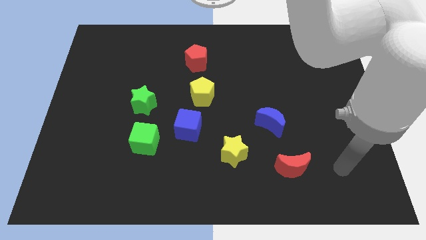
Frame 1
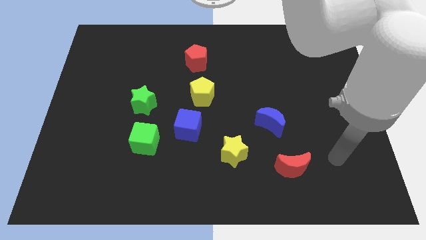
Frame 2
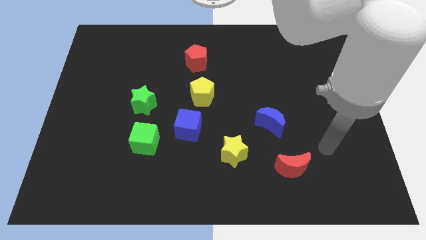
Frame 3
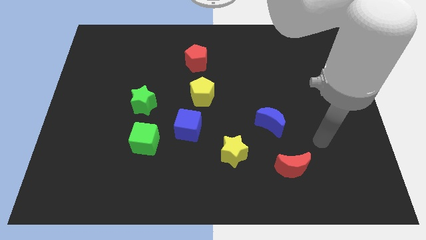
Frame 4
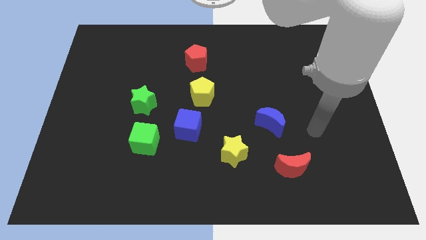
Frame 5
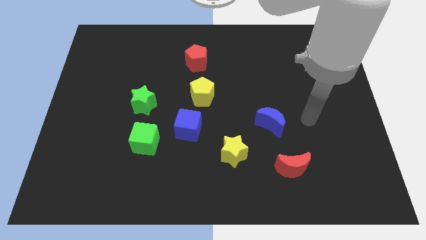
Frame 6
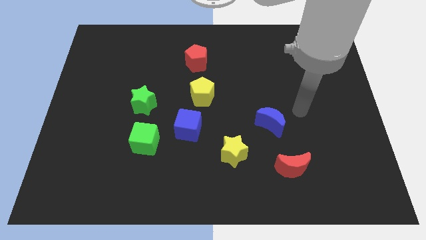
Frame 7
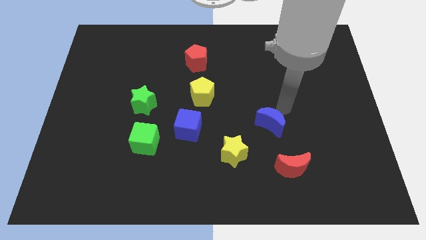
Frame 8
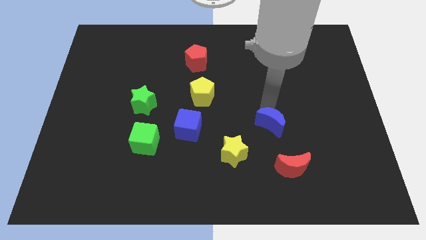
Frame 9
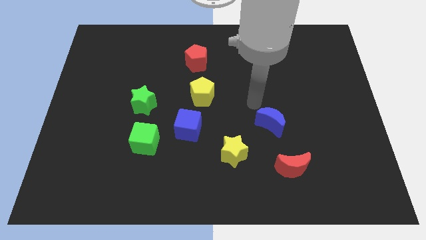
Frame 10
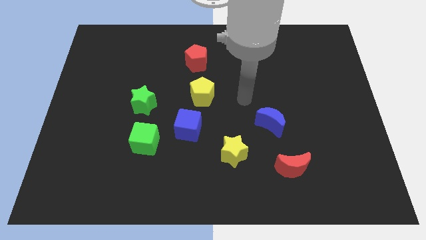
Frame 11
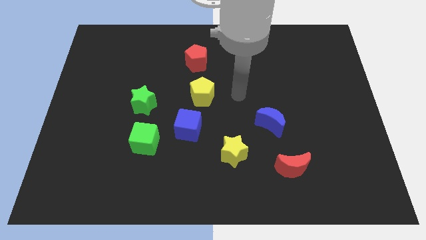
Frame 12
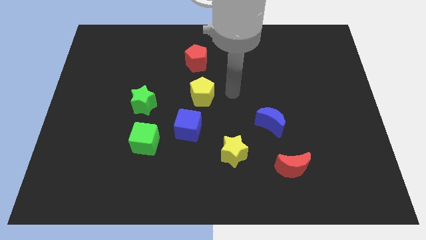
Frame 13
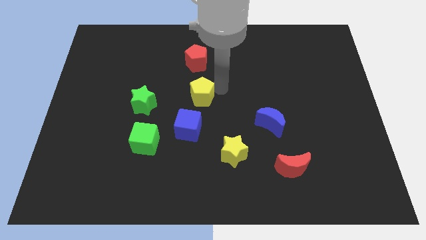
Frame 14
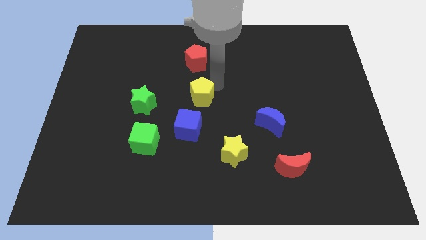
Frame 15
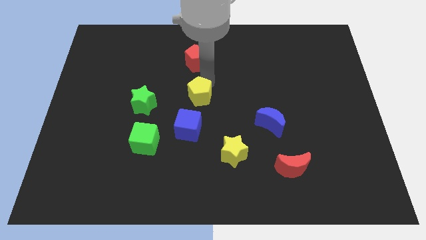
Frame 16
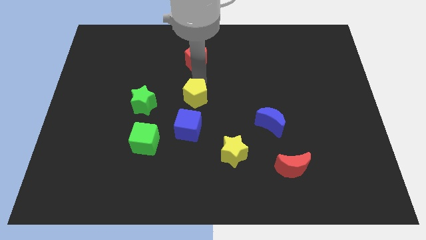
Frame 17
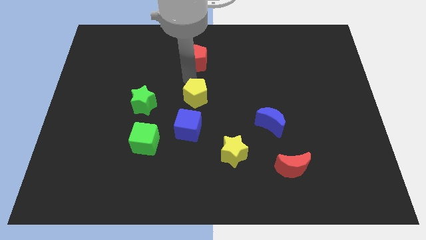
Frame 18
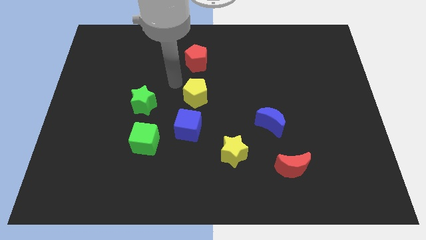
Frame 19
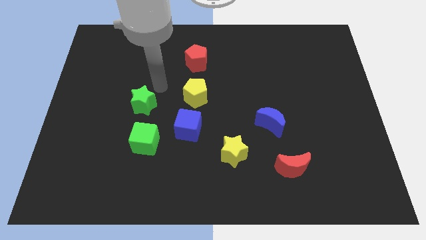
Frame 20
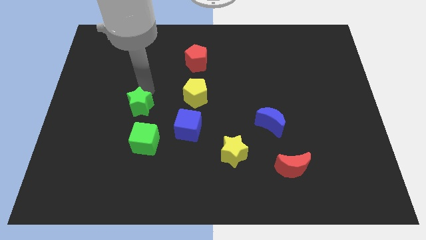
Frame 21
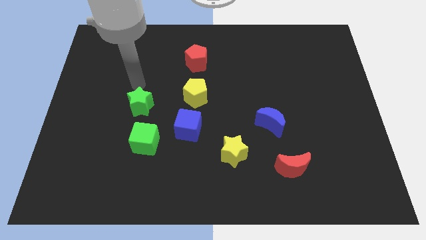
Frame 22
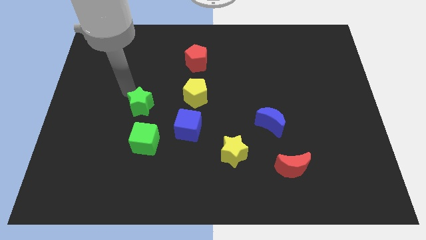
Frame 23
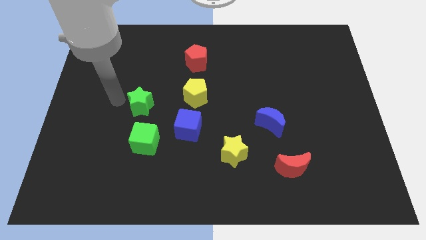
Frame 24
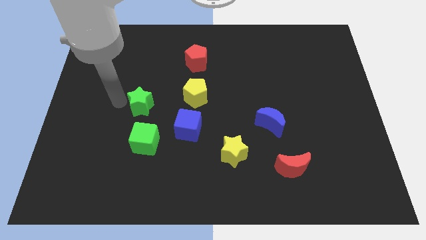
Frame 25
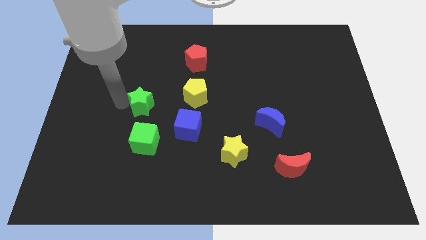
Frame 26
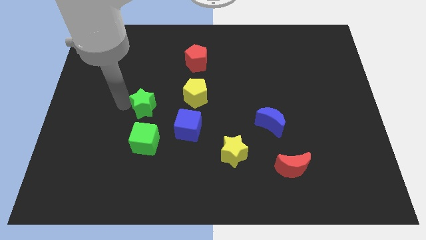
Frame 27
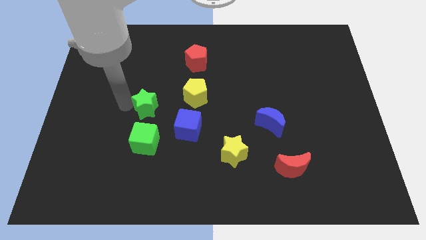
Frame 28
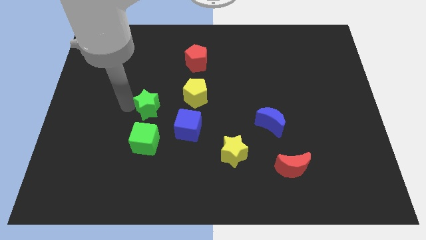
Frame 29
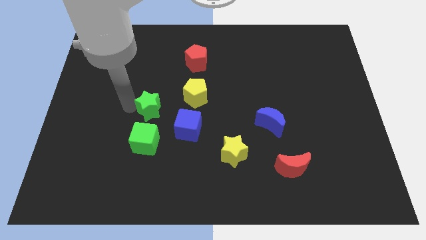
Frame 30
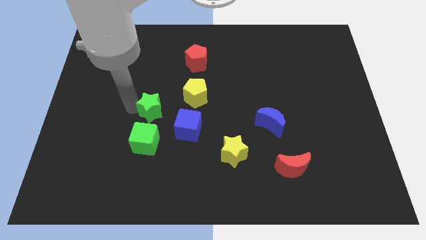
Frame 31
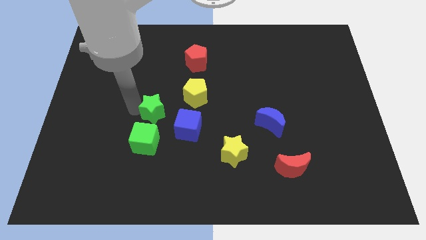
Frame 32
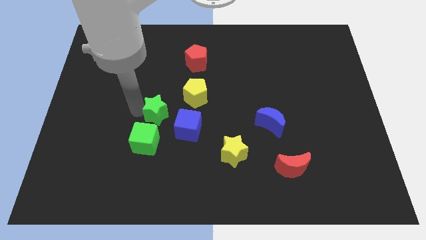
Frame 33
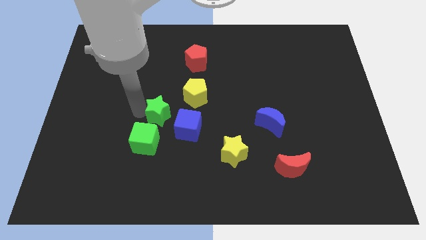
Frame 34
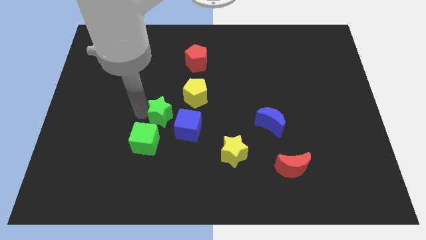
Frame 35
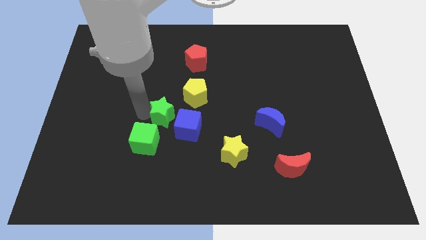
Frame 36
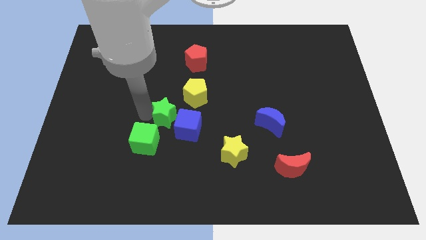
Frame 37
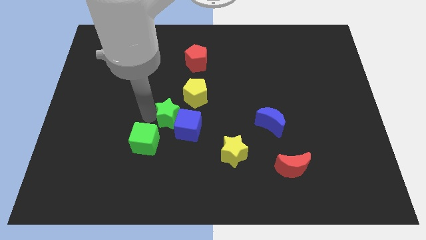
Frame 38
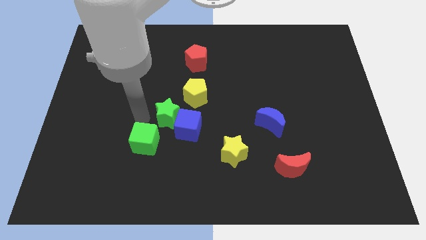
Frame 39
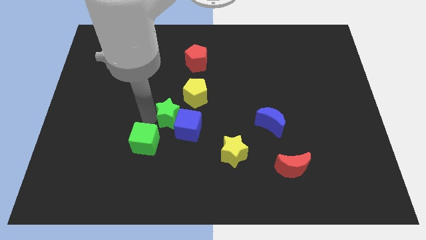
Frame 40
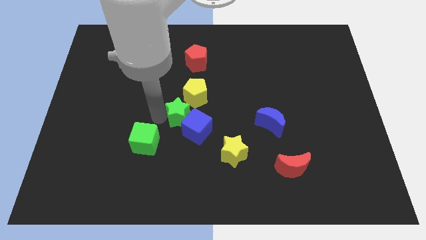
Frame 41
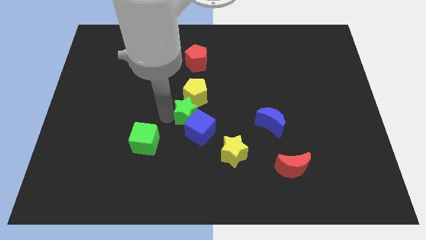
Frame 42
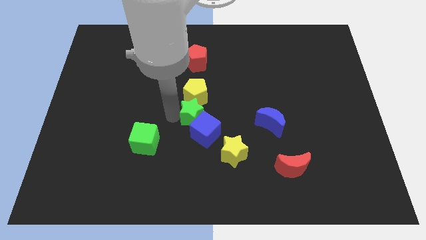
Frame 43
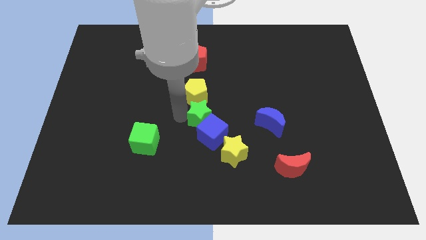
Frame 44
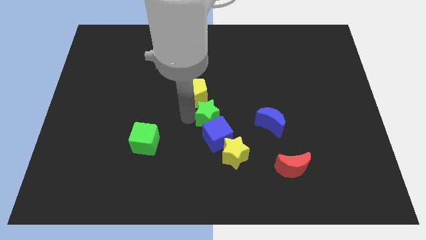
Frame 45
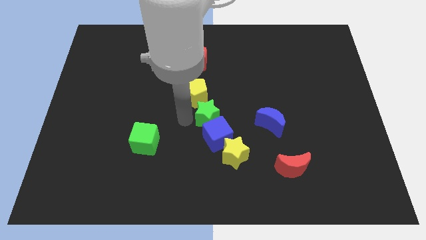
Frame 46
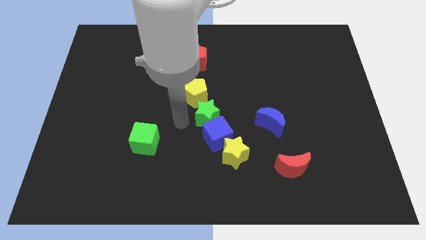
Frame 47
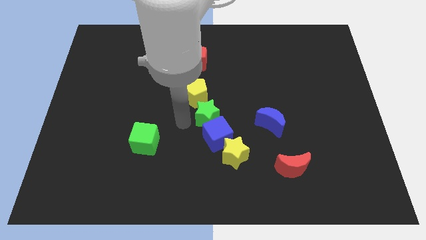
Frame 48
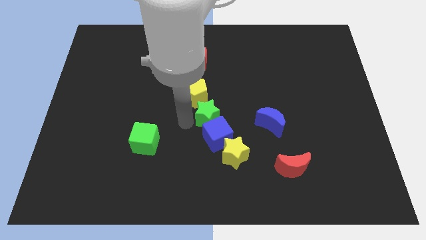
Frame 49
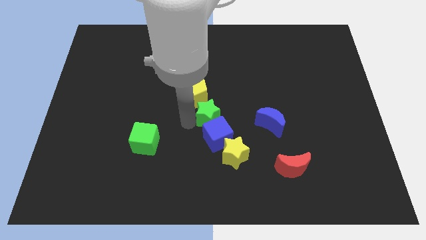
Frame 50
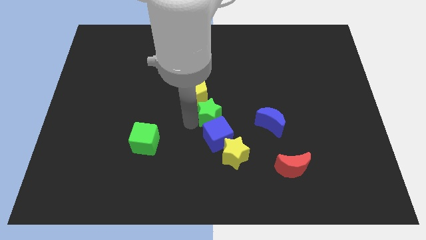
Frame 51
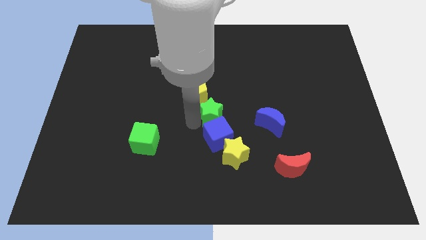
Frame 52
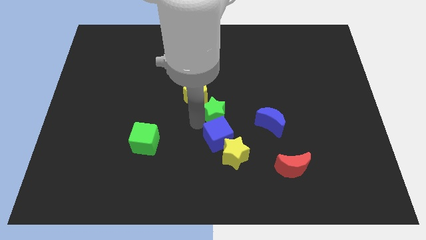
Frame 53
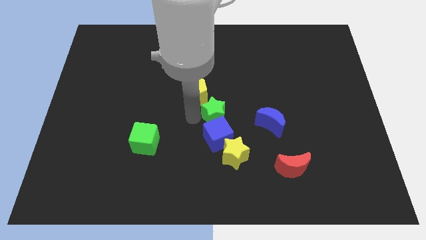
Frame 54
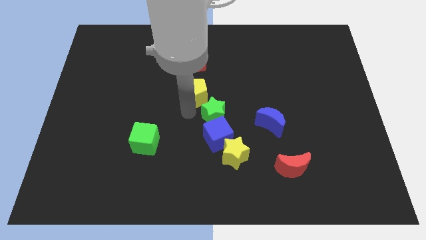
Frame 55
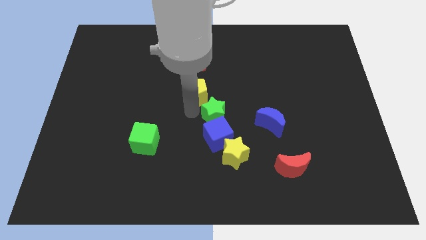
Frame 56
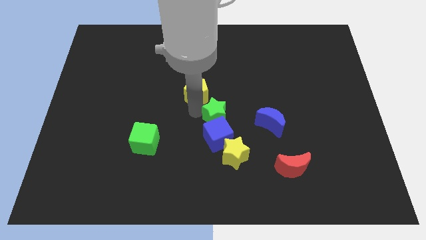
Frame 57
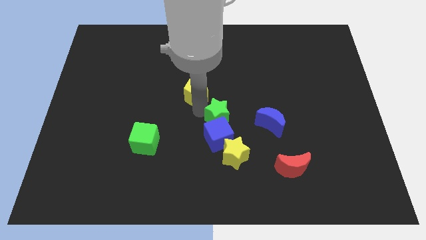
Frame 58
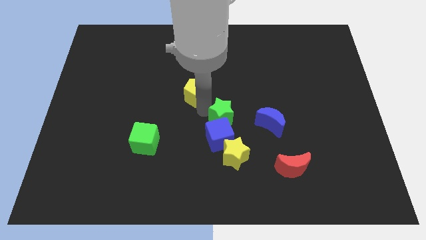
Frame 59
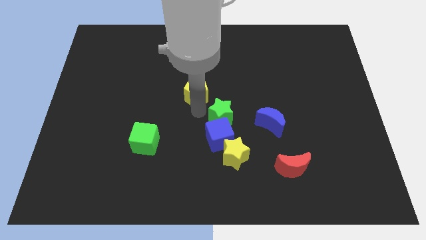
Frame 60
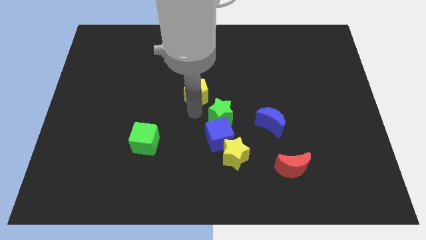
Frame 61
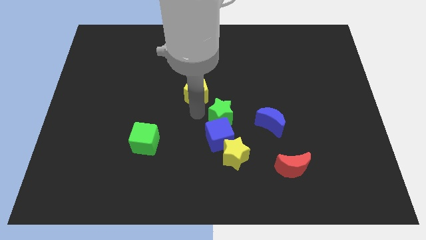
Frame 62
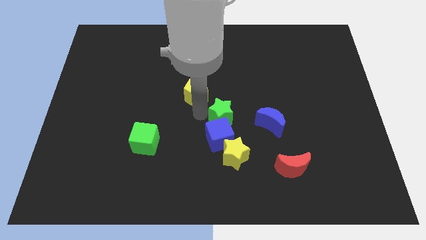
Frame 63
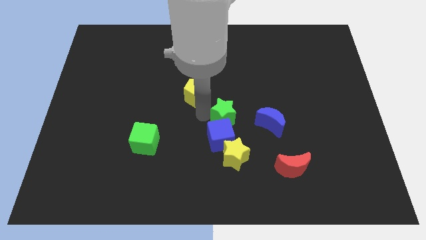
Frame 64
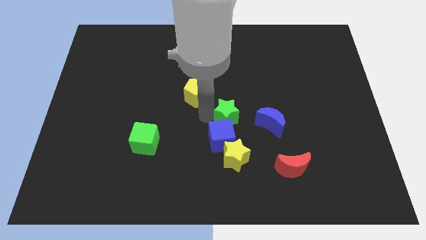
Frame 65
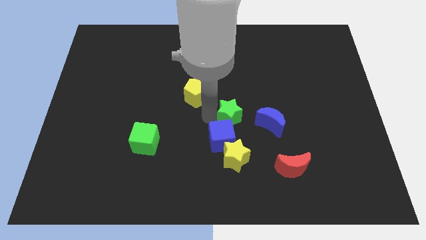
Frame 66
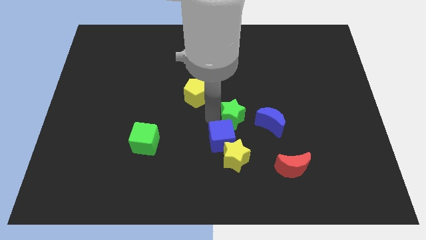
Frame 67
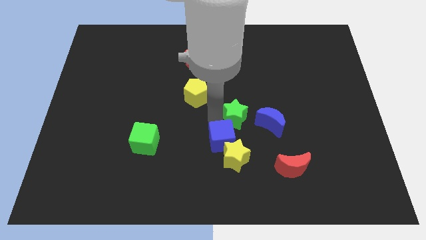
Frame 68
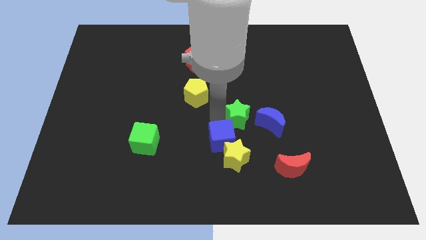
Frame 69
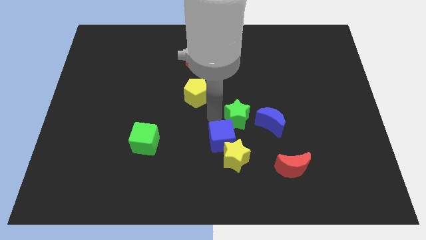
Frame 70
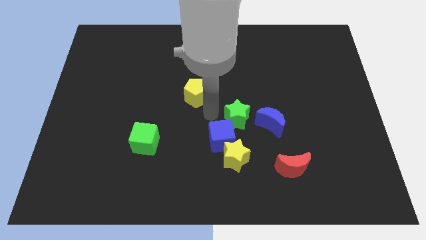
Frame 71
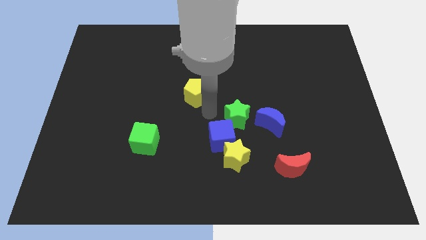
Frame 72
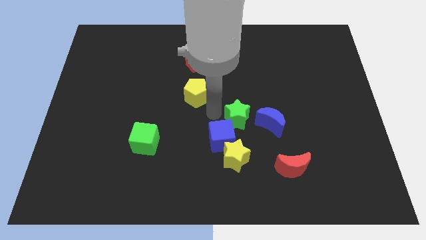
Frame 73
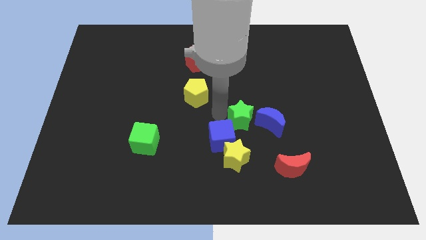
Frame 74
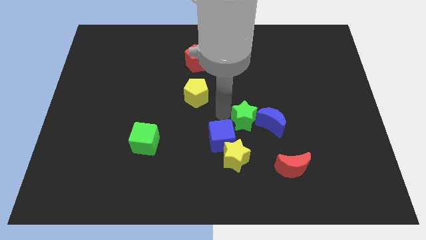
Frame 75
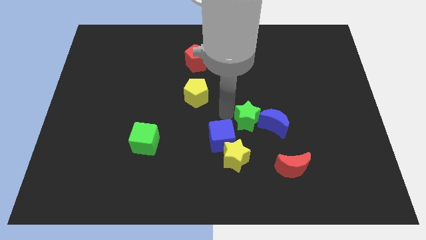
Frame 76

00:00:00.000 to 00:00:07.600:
slide the green star towards the blue moon
